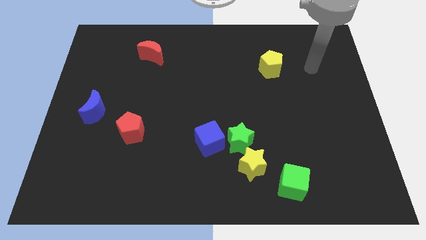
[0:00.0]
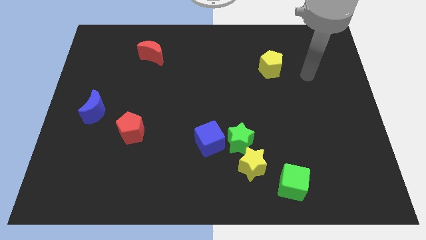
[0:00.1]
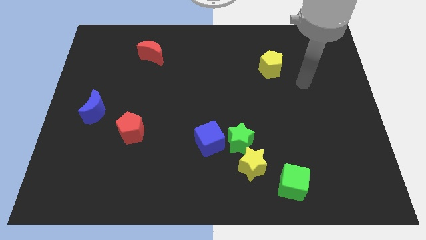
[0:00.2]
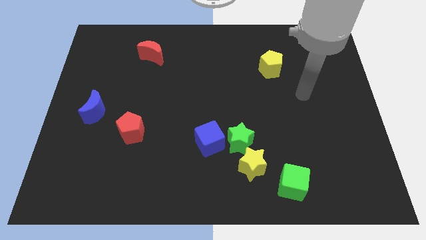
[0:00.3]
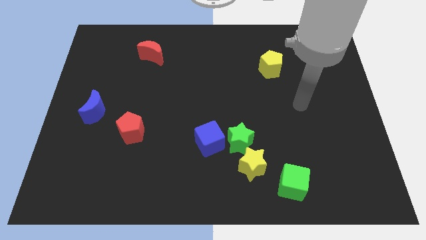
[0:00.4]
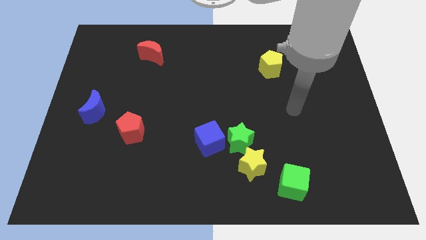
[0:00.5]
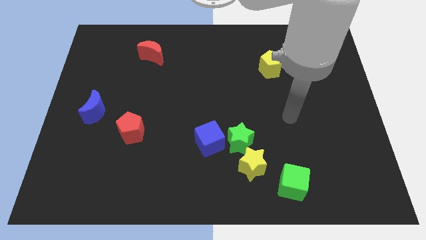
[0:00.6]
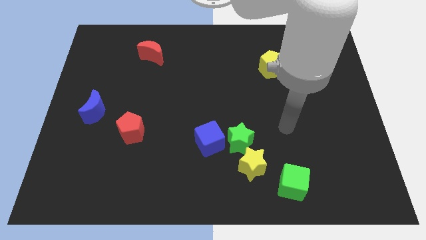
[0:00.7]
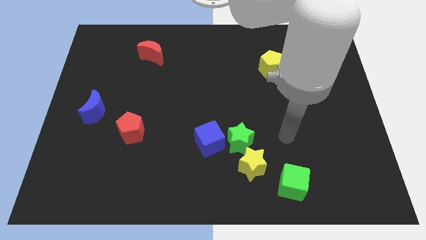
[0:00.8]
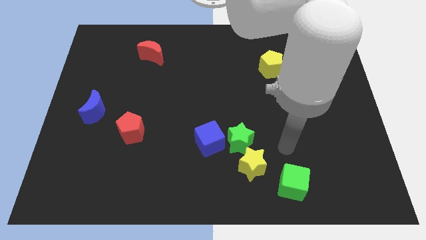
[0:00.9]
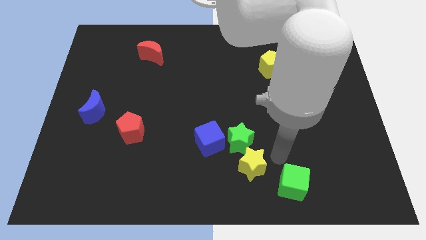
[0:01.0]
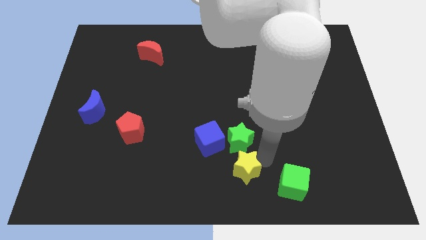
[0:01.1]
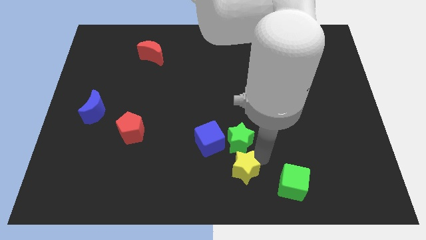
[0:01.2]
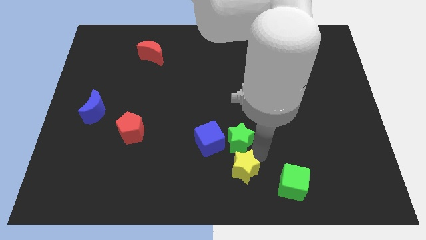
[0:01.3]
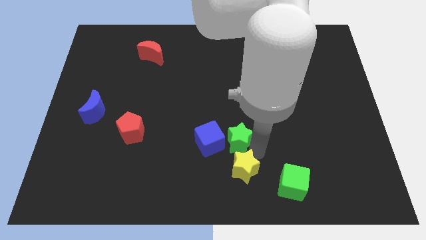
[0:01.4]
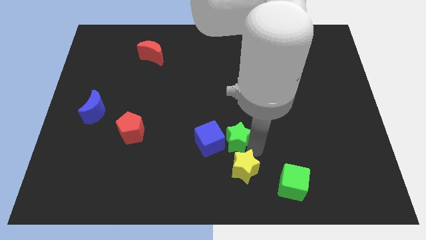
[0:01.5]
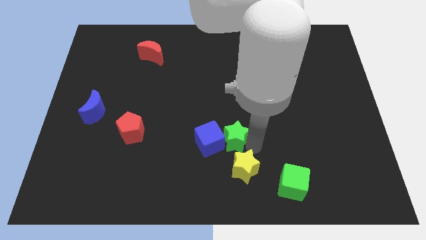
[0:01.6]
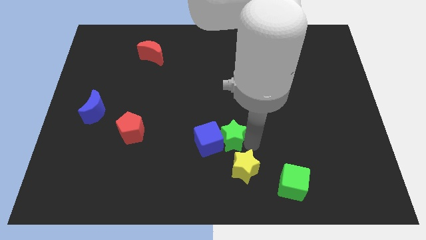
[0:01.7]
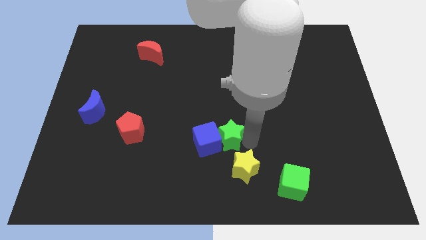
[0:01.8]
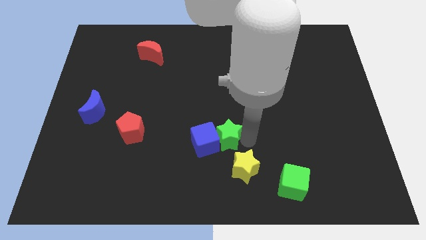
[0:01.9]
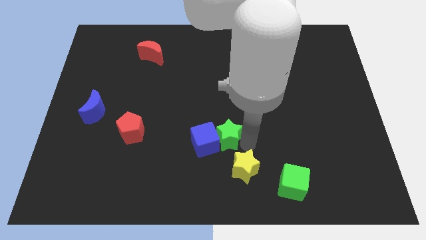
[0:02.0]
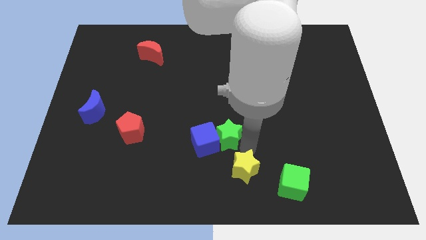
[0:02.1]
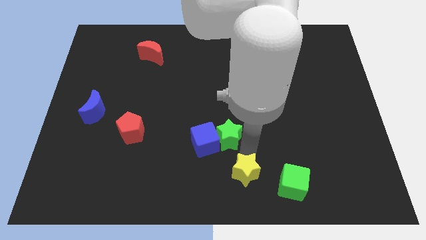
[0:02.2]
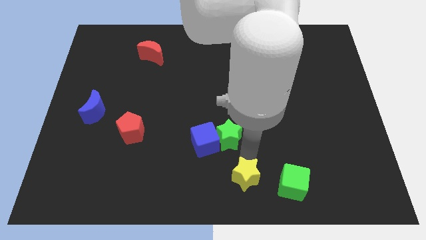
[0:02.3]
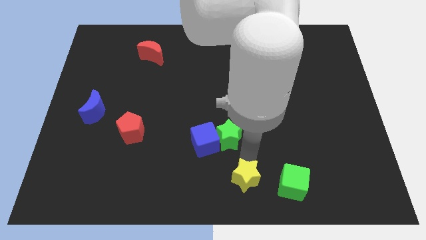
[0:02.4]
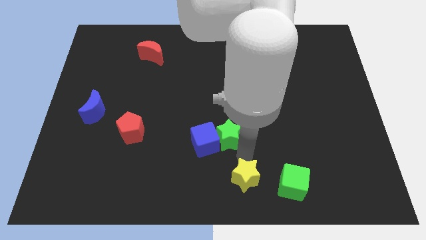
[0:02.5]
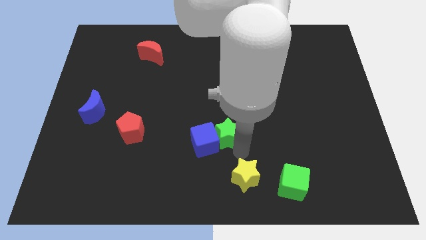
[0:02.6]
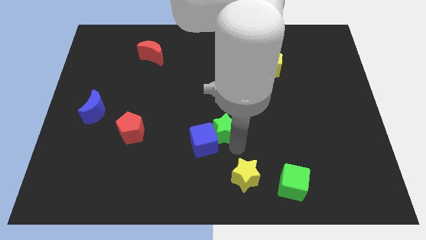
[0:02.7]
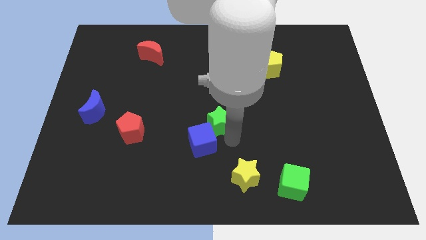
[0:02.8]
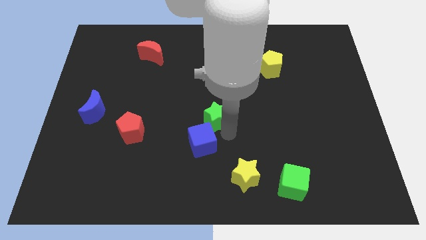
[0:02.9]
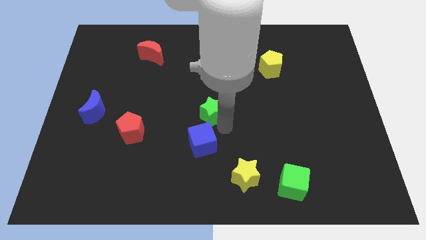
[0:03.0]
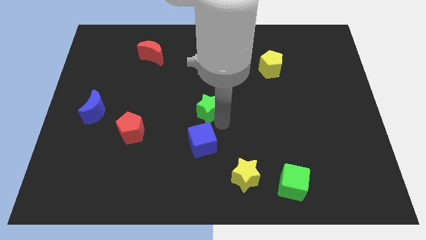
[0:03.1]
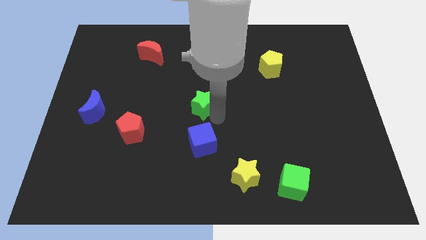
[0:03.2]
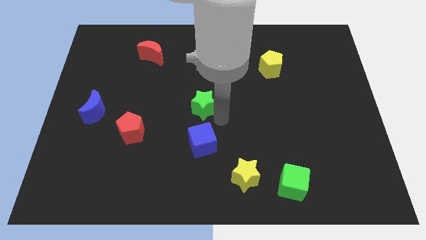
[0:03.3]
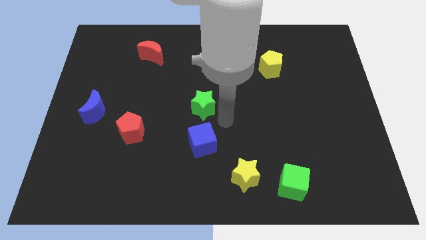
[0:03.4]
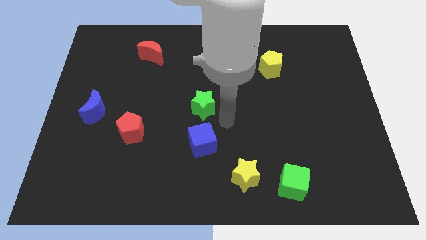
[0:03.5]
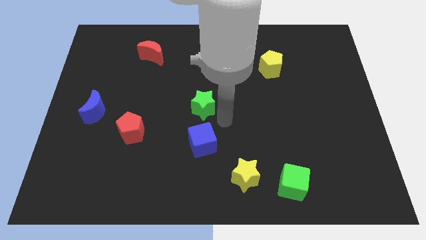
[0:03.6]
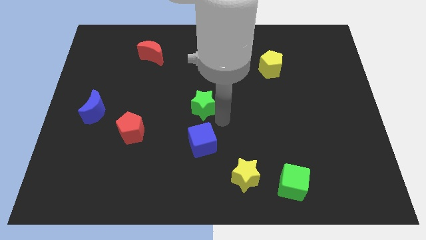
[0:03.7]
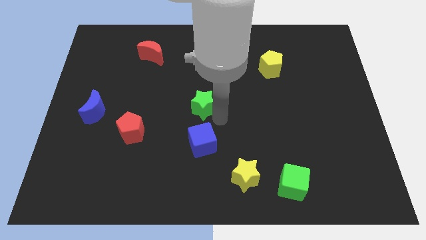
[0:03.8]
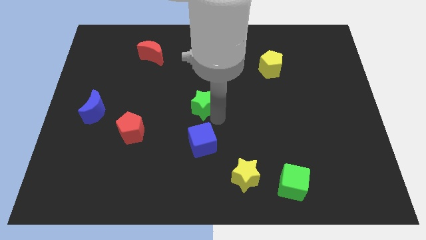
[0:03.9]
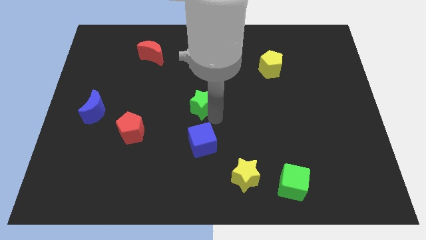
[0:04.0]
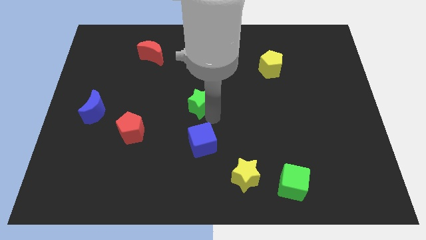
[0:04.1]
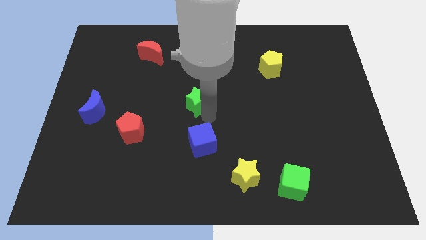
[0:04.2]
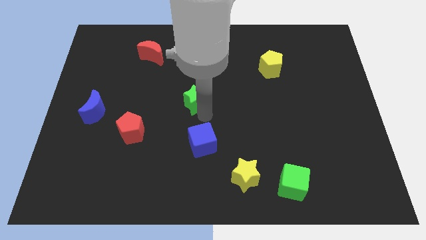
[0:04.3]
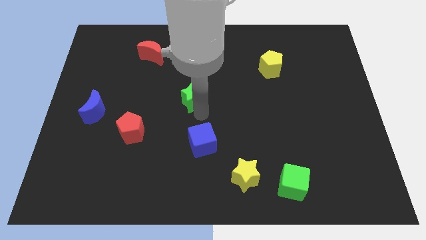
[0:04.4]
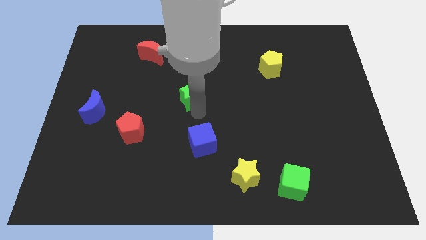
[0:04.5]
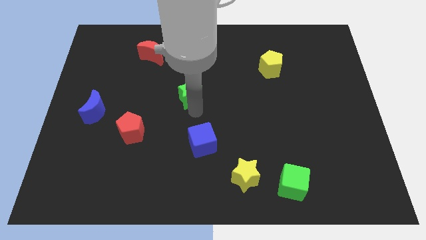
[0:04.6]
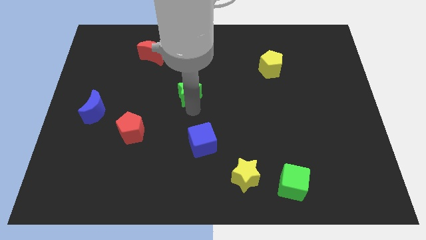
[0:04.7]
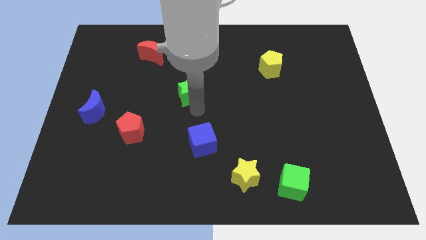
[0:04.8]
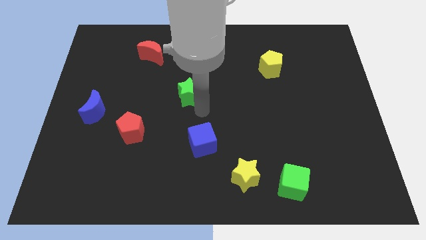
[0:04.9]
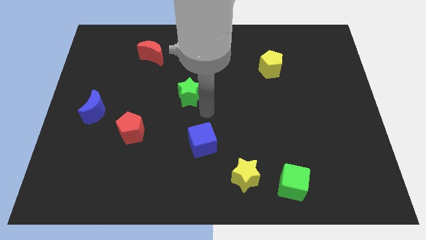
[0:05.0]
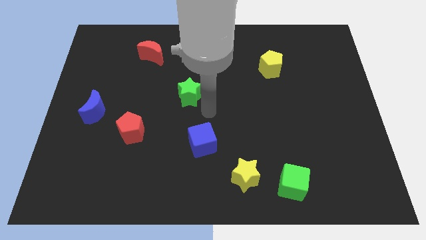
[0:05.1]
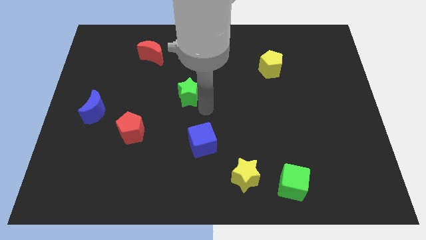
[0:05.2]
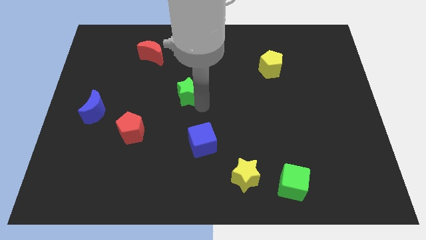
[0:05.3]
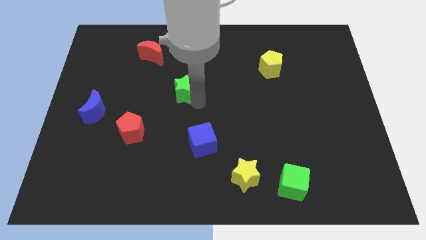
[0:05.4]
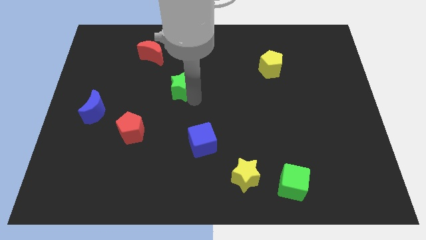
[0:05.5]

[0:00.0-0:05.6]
slide the green star up and to the left

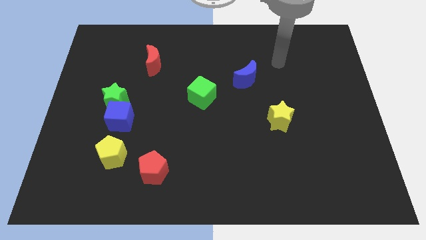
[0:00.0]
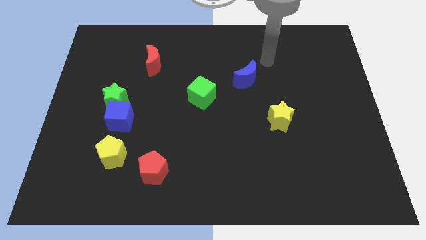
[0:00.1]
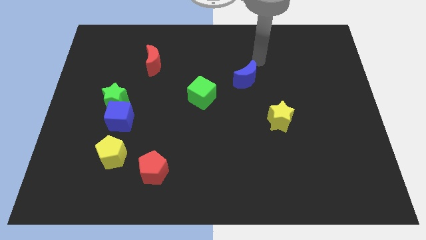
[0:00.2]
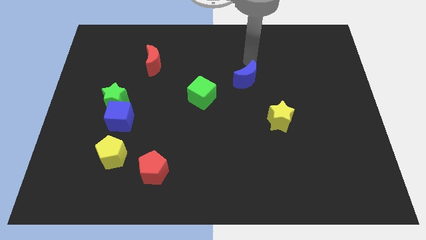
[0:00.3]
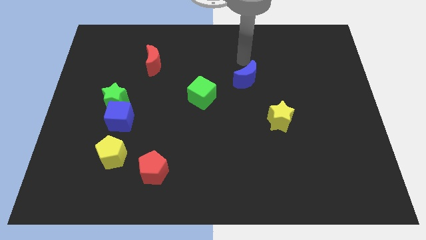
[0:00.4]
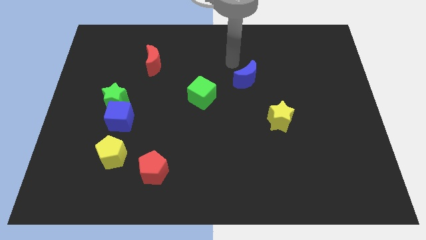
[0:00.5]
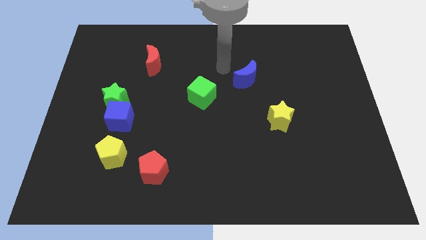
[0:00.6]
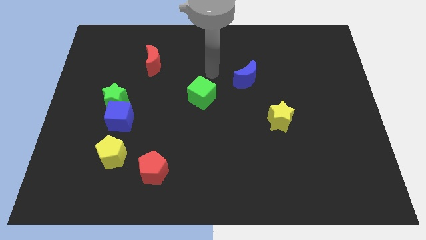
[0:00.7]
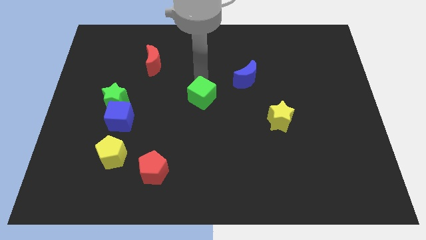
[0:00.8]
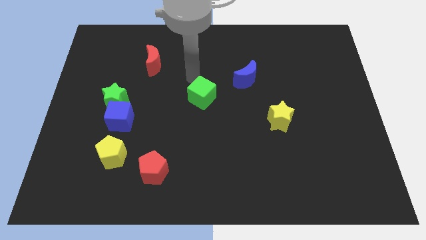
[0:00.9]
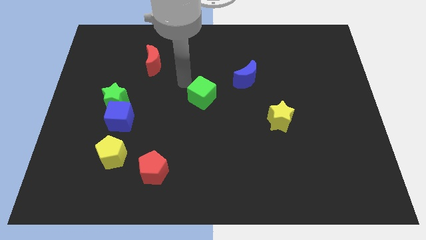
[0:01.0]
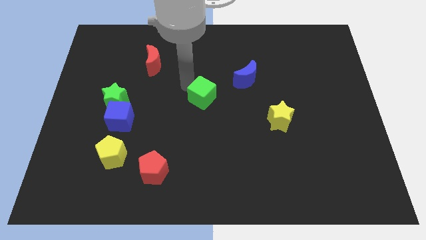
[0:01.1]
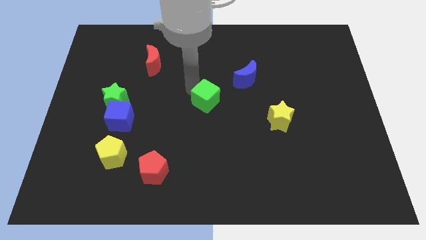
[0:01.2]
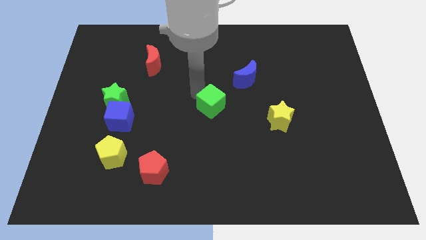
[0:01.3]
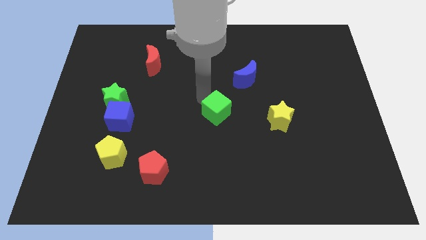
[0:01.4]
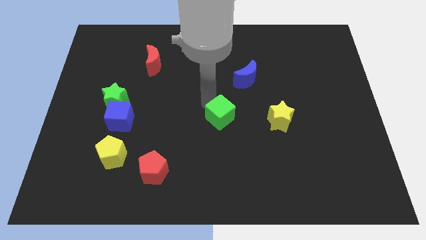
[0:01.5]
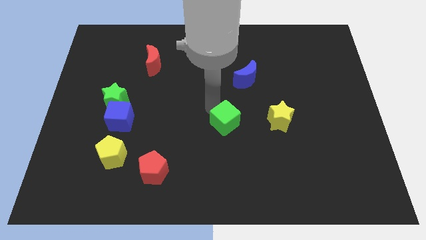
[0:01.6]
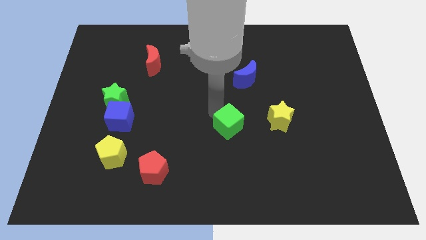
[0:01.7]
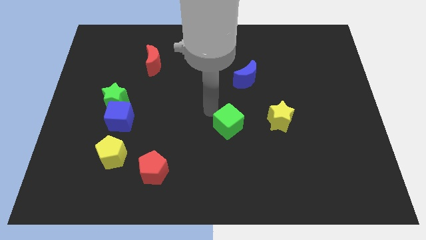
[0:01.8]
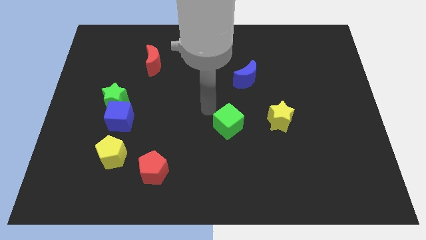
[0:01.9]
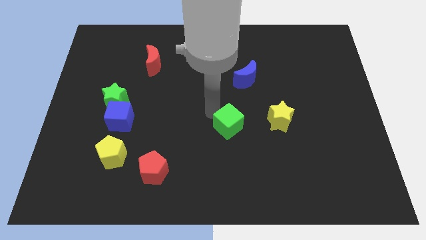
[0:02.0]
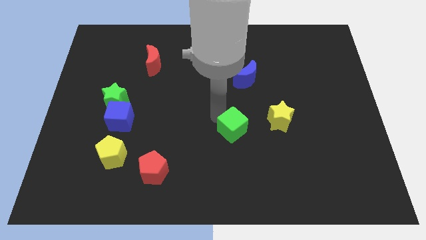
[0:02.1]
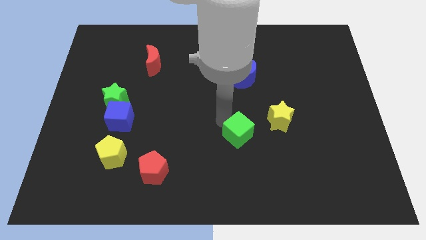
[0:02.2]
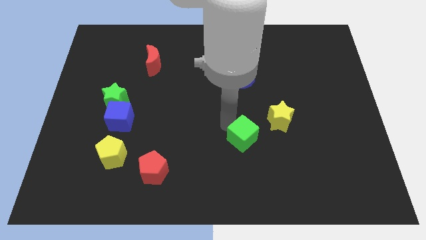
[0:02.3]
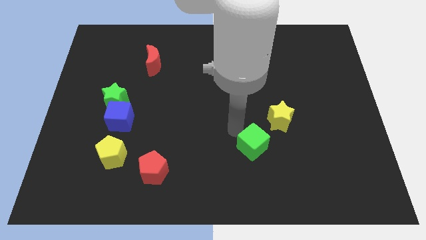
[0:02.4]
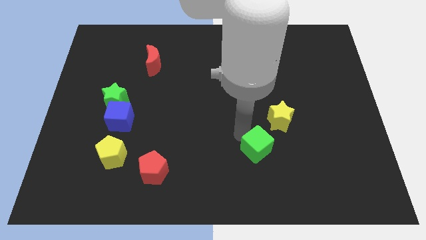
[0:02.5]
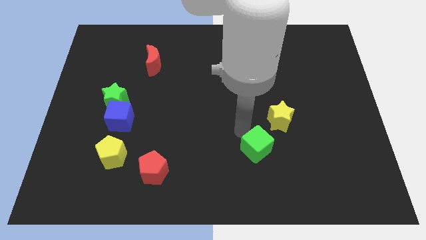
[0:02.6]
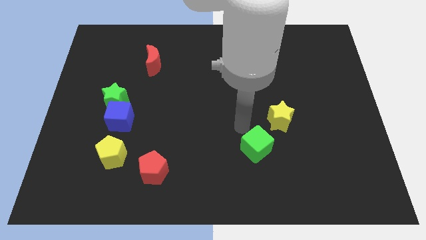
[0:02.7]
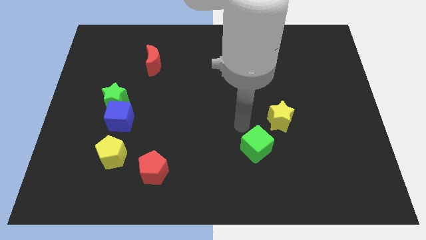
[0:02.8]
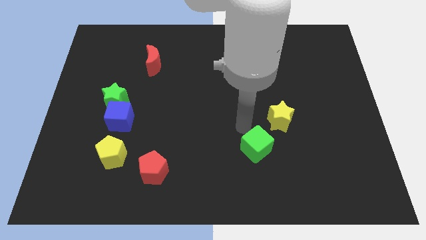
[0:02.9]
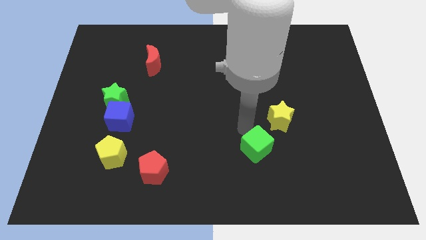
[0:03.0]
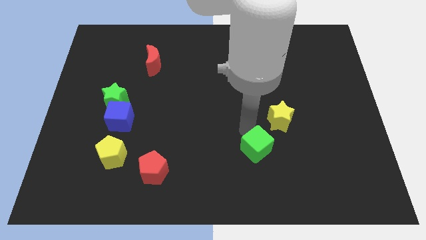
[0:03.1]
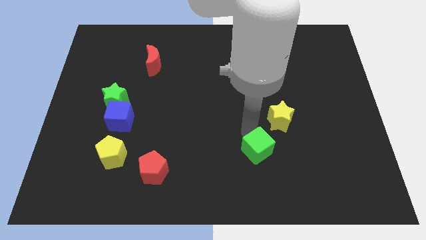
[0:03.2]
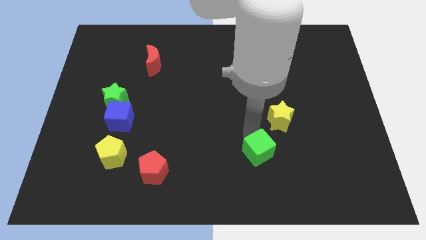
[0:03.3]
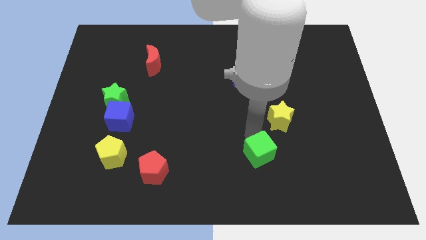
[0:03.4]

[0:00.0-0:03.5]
push the green cube down and to the right diagonally
